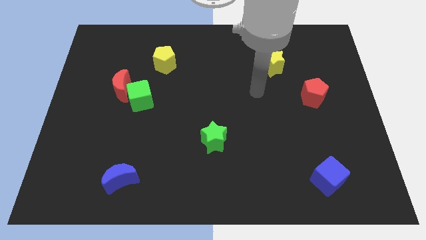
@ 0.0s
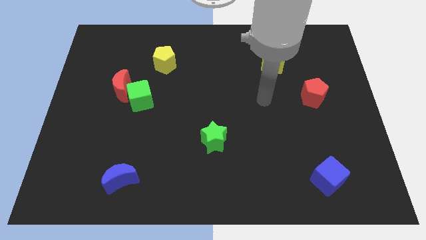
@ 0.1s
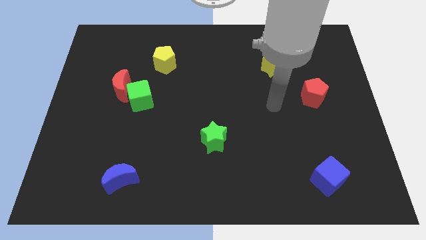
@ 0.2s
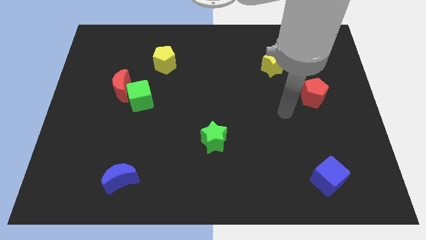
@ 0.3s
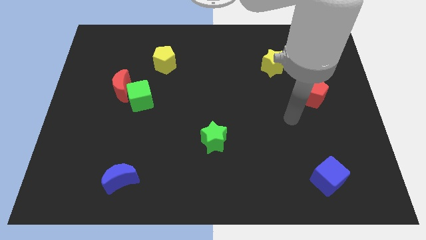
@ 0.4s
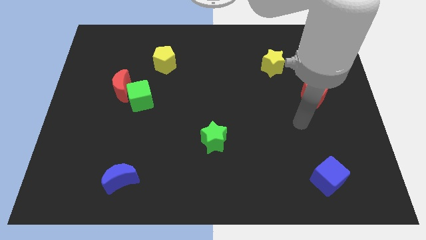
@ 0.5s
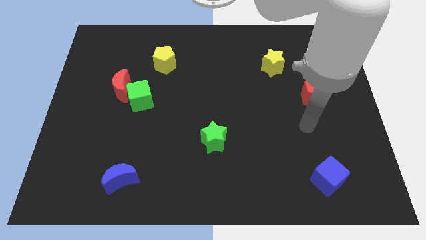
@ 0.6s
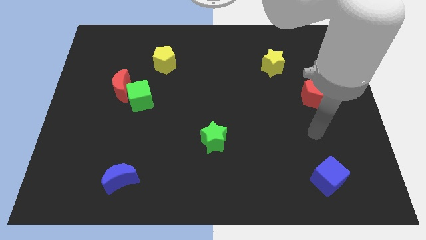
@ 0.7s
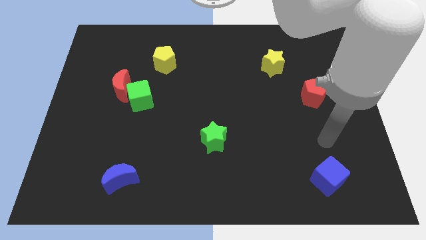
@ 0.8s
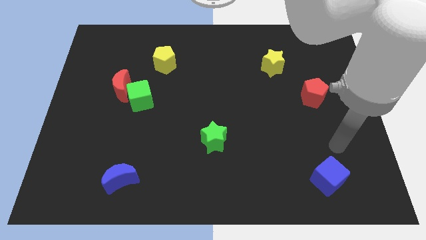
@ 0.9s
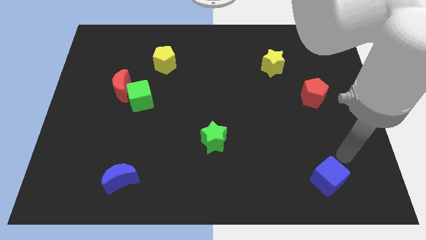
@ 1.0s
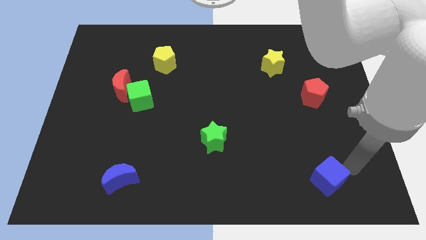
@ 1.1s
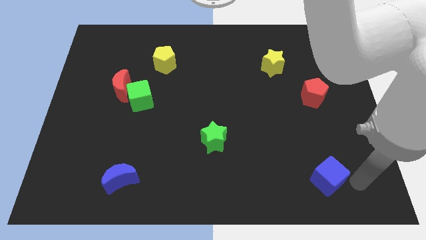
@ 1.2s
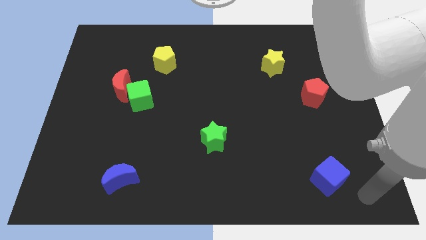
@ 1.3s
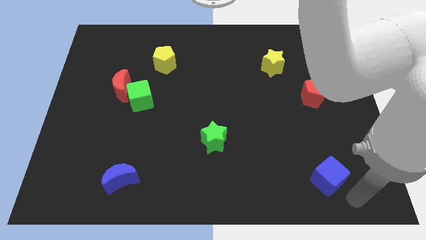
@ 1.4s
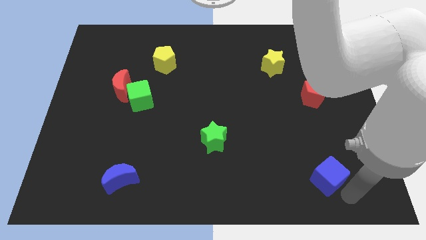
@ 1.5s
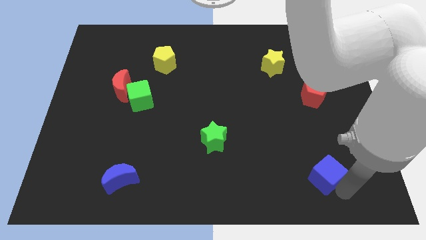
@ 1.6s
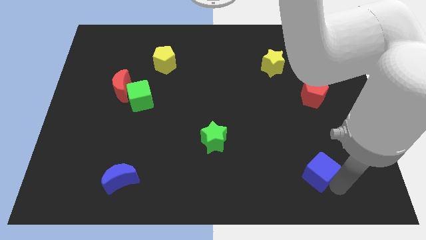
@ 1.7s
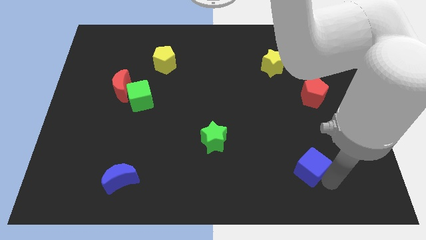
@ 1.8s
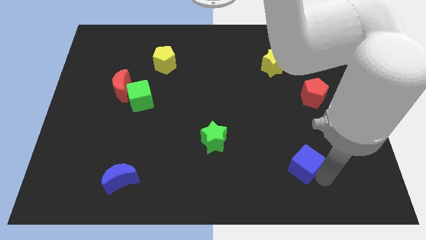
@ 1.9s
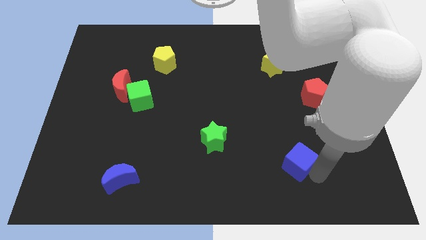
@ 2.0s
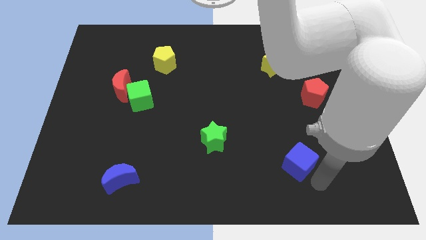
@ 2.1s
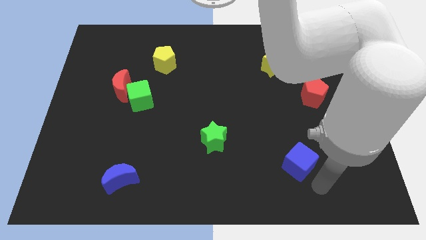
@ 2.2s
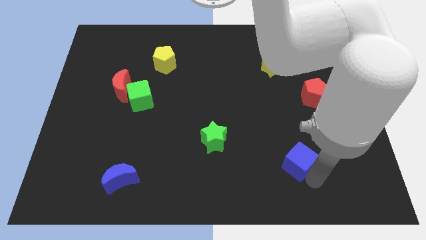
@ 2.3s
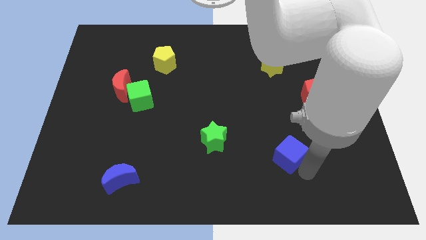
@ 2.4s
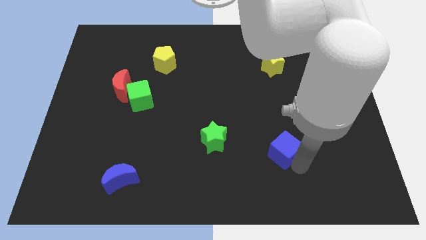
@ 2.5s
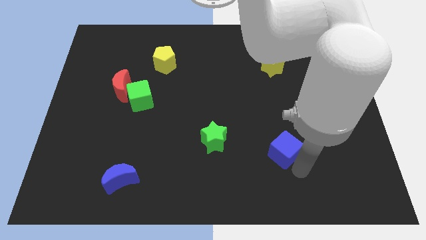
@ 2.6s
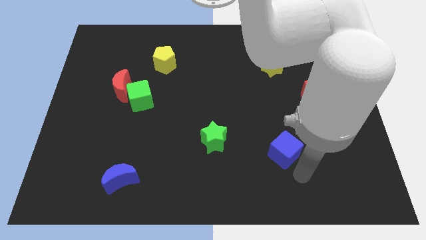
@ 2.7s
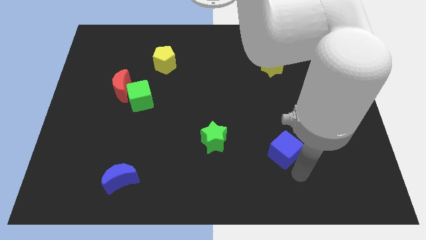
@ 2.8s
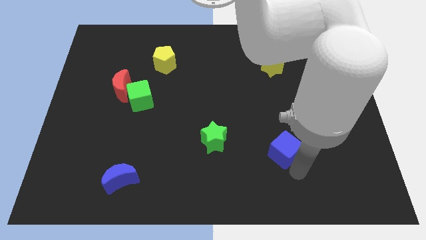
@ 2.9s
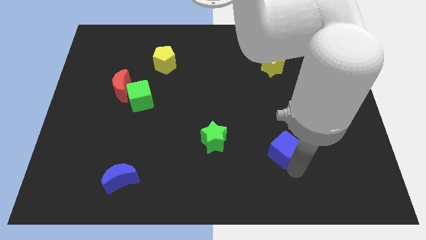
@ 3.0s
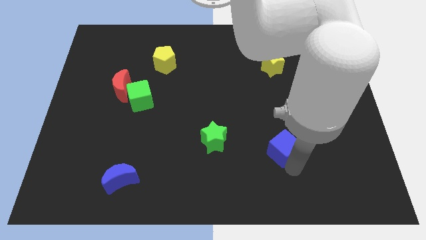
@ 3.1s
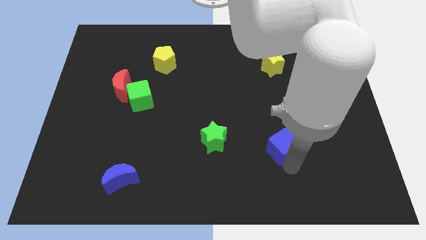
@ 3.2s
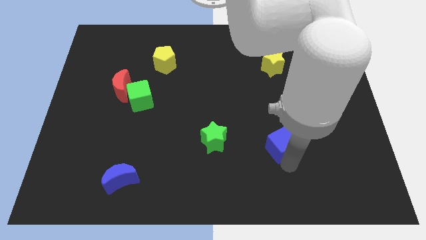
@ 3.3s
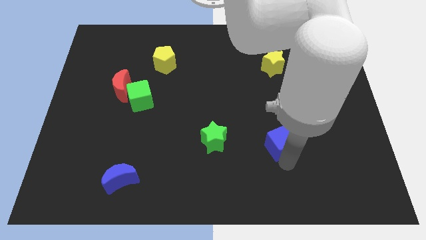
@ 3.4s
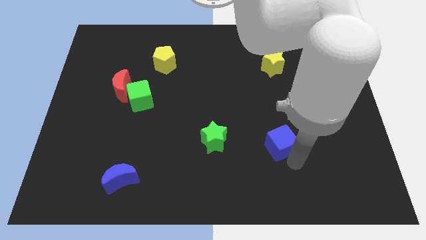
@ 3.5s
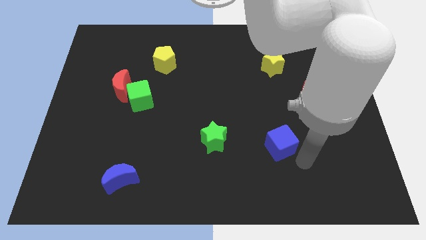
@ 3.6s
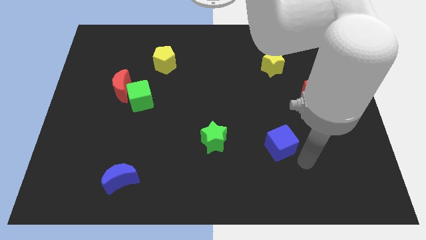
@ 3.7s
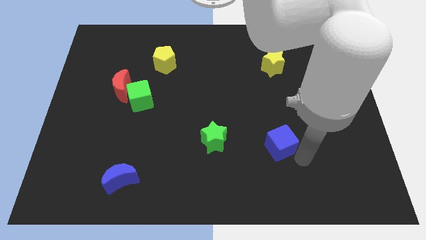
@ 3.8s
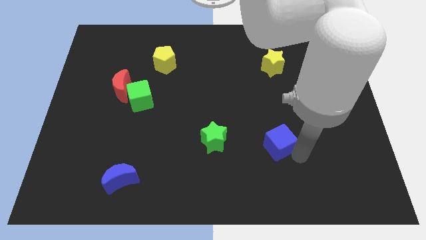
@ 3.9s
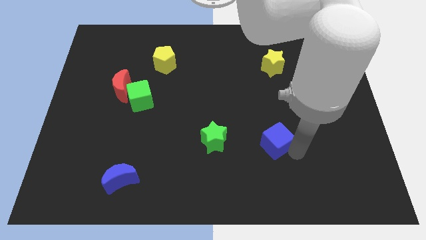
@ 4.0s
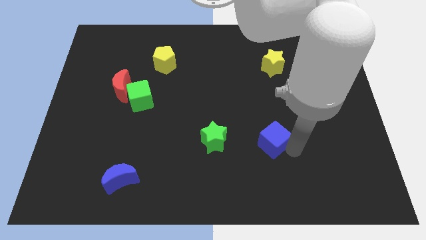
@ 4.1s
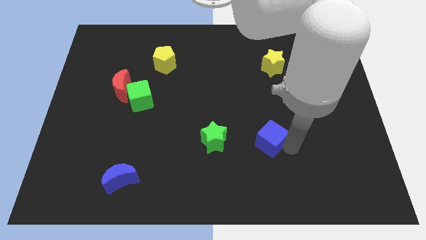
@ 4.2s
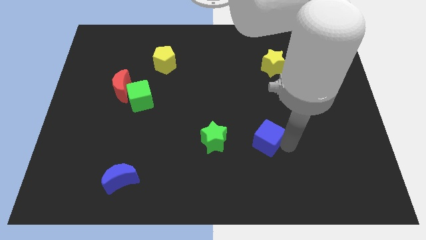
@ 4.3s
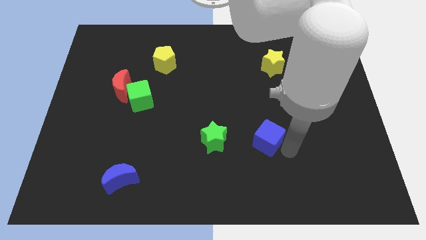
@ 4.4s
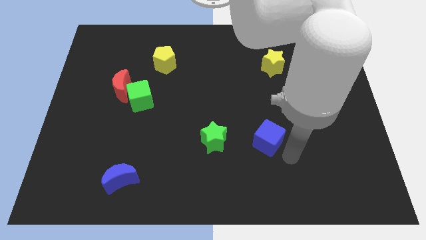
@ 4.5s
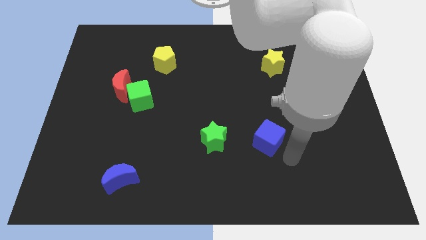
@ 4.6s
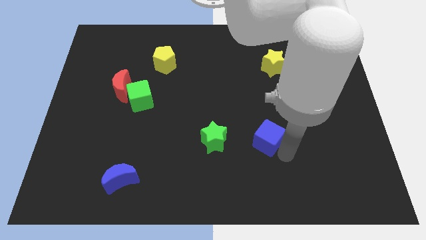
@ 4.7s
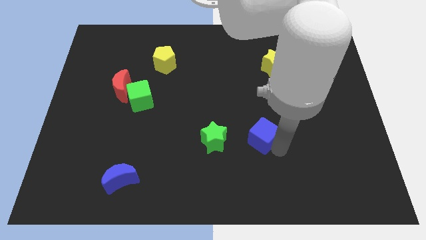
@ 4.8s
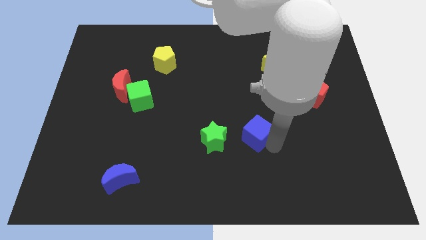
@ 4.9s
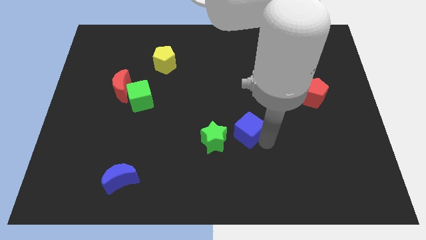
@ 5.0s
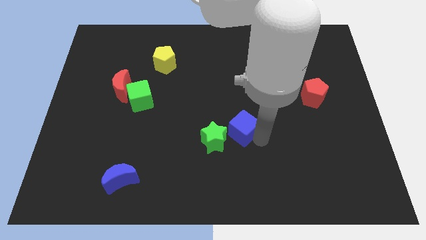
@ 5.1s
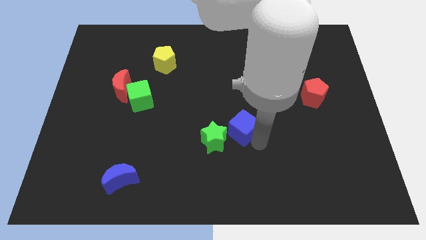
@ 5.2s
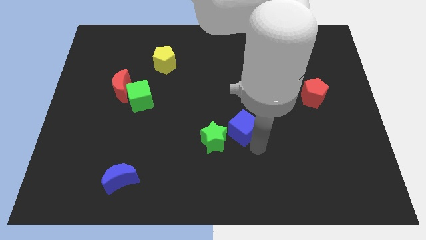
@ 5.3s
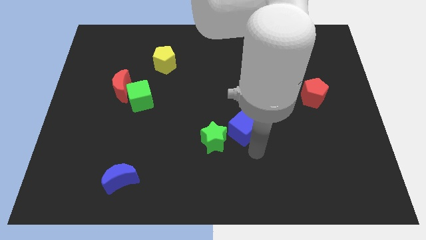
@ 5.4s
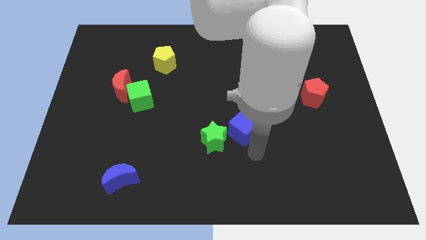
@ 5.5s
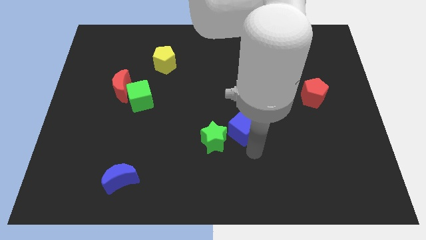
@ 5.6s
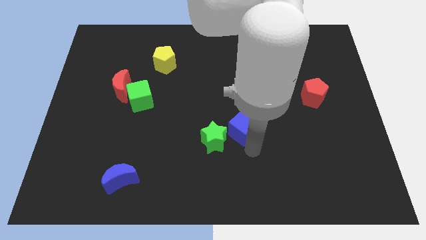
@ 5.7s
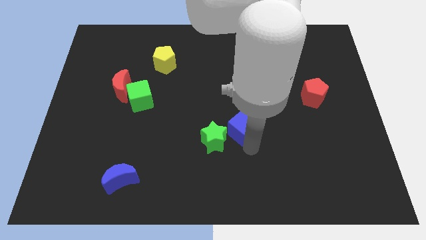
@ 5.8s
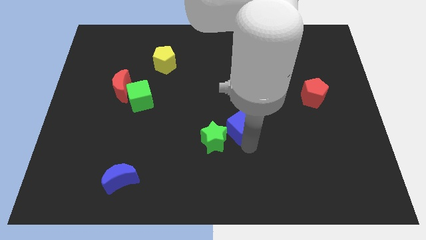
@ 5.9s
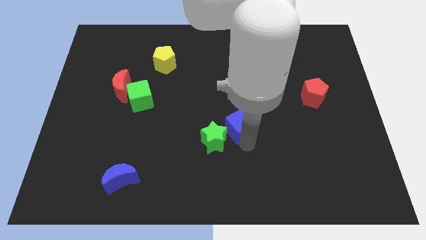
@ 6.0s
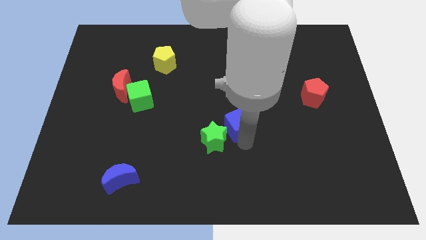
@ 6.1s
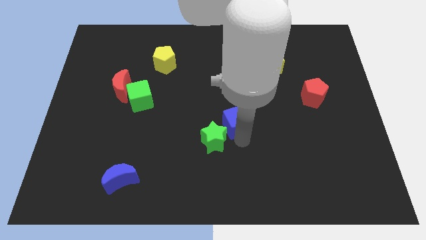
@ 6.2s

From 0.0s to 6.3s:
move the blue cube above the green star

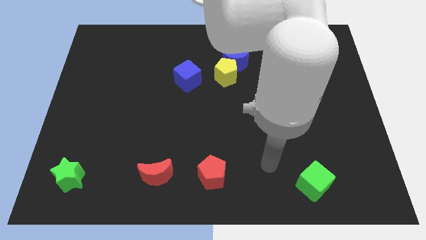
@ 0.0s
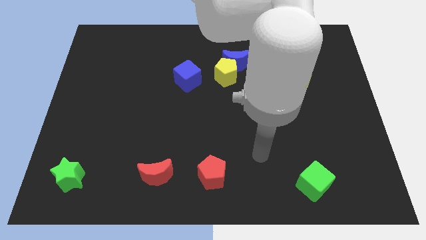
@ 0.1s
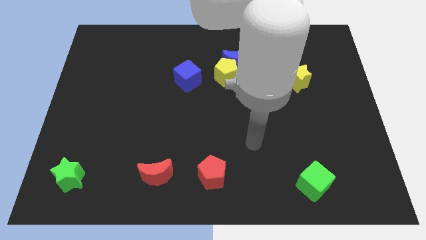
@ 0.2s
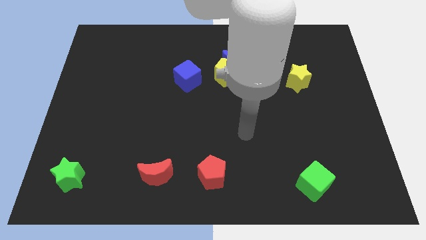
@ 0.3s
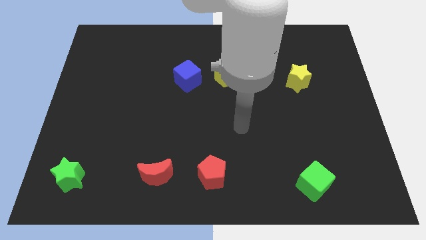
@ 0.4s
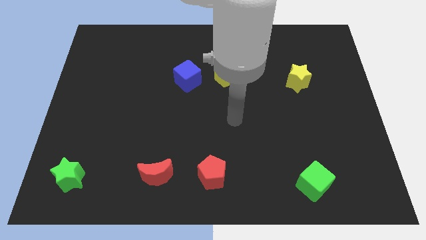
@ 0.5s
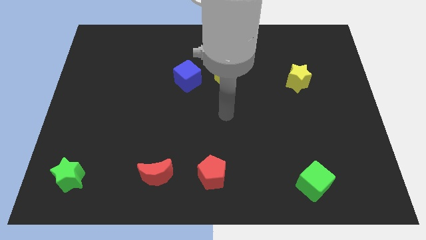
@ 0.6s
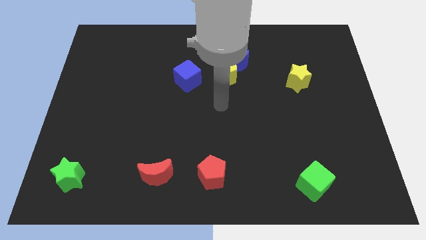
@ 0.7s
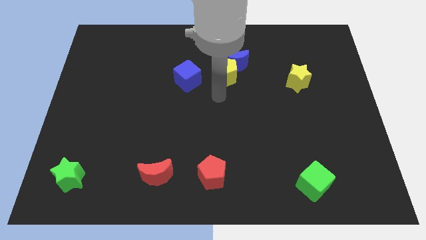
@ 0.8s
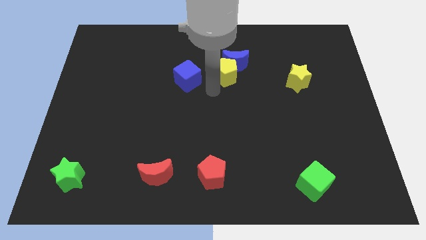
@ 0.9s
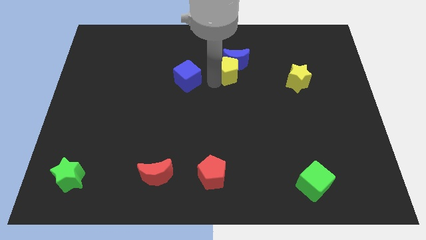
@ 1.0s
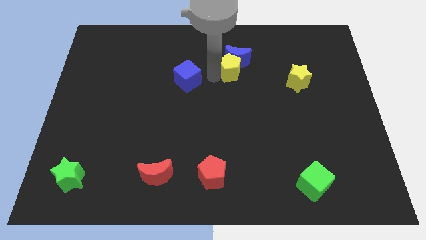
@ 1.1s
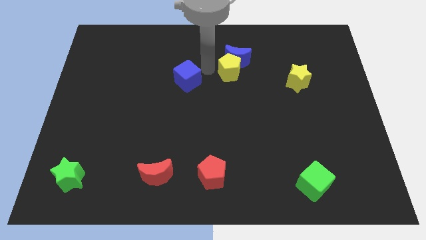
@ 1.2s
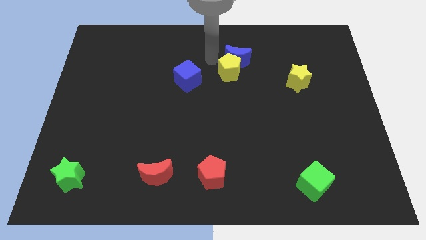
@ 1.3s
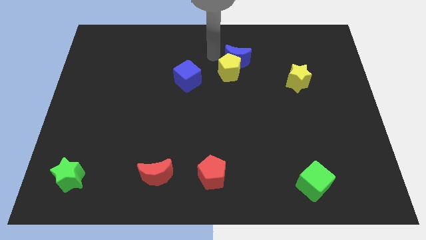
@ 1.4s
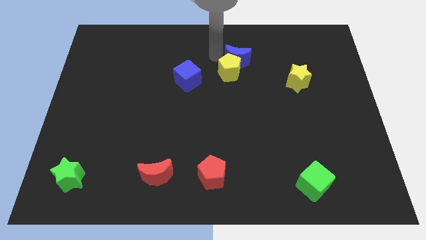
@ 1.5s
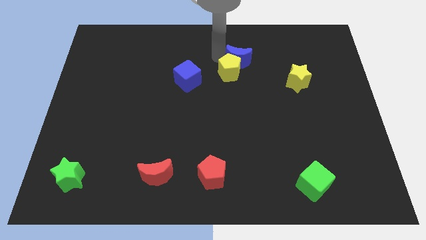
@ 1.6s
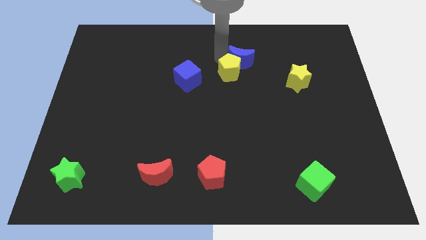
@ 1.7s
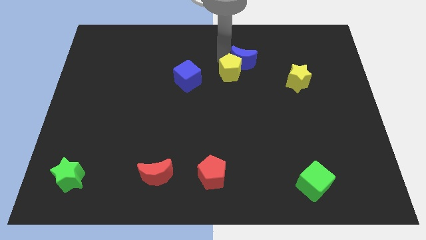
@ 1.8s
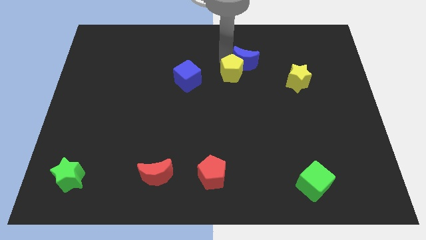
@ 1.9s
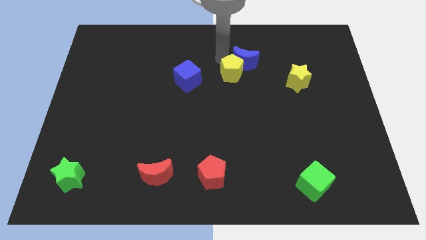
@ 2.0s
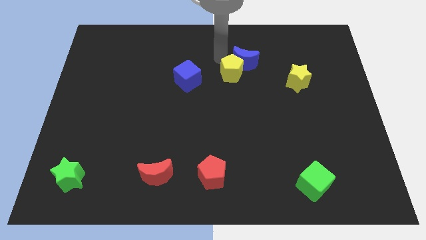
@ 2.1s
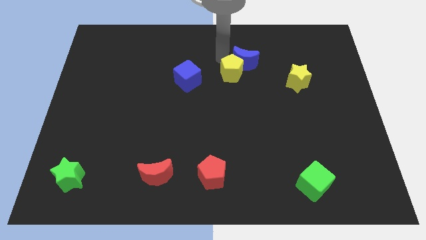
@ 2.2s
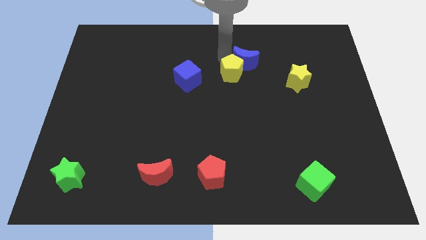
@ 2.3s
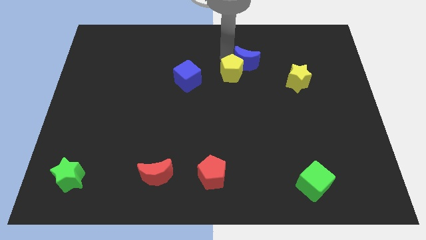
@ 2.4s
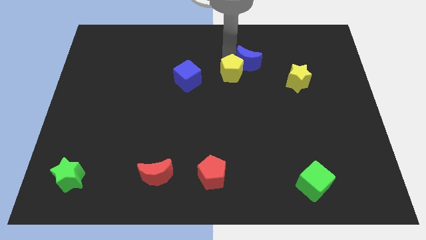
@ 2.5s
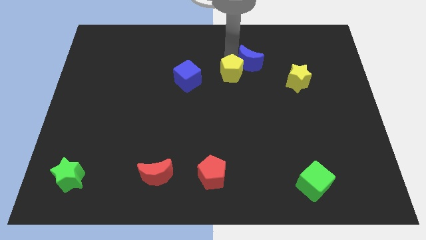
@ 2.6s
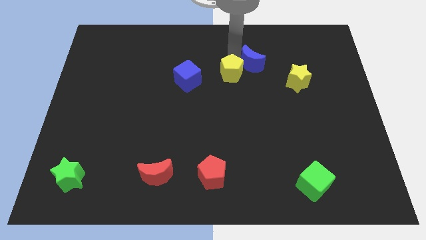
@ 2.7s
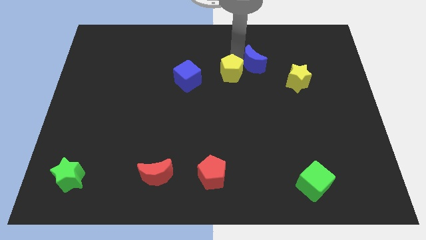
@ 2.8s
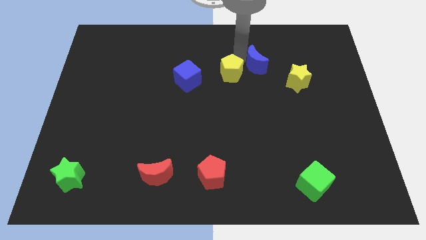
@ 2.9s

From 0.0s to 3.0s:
slide the blue moon to the top left side of the yellow star
